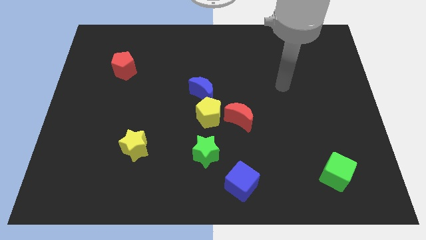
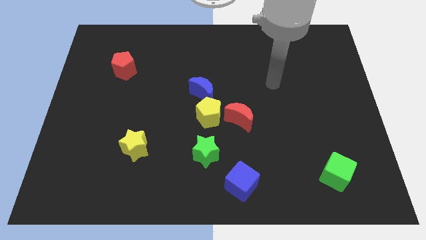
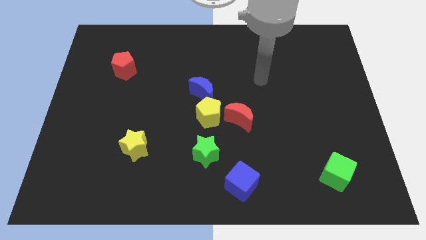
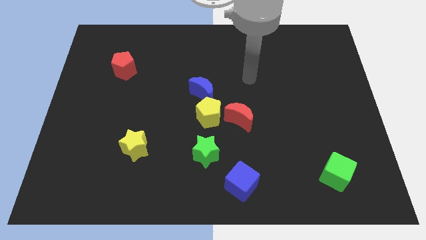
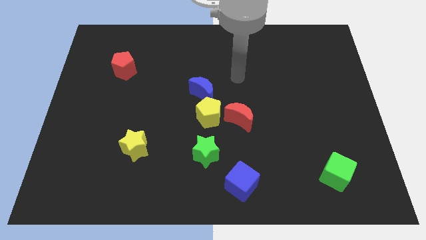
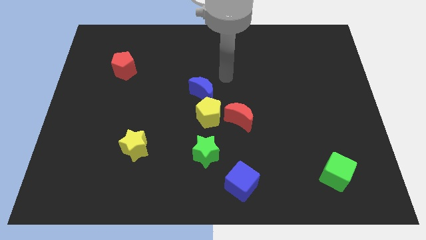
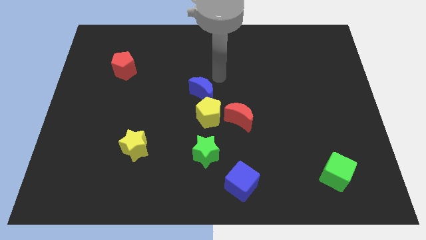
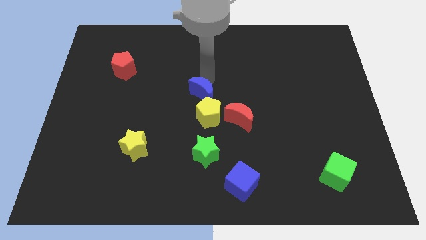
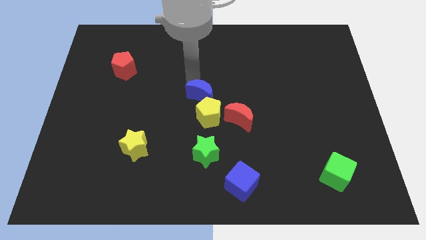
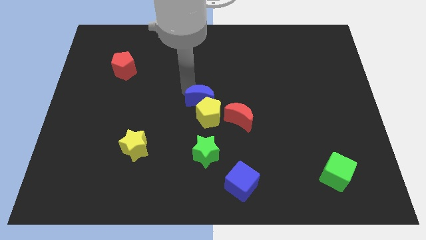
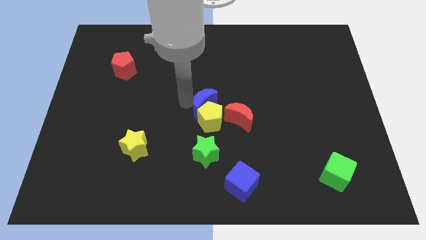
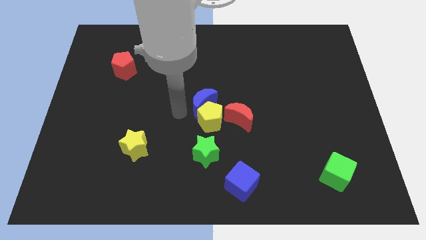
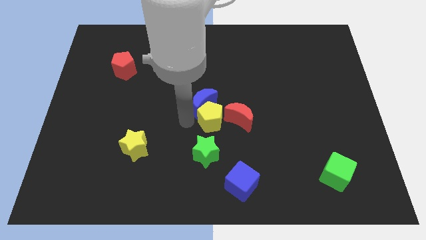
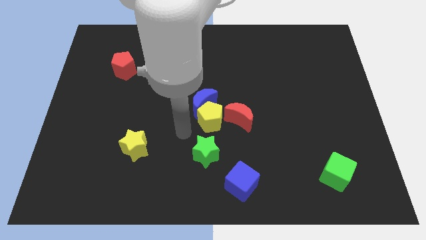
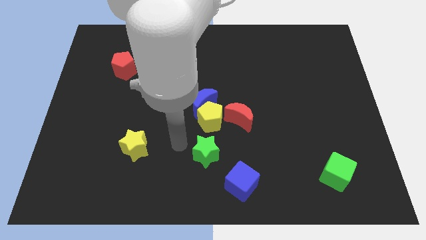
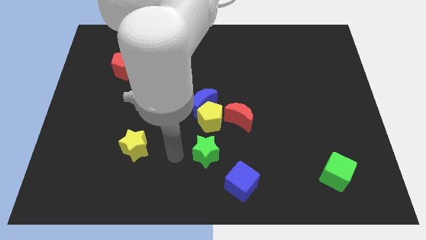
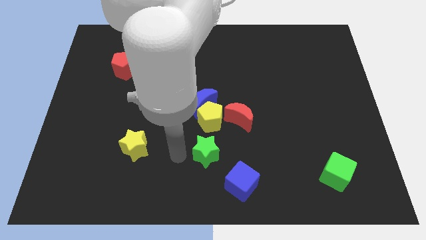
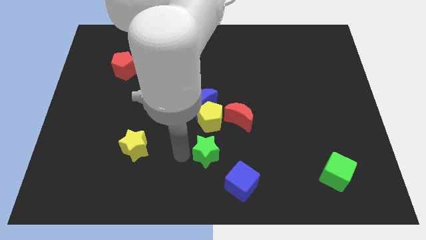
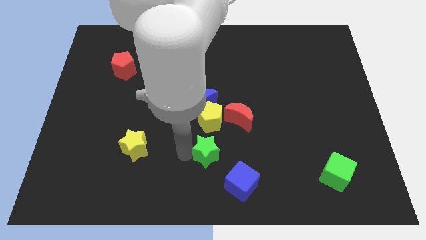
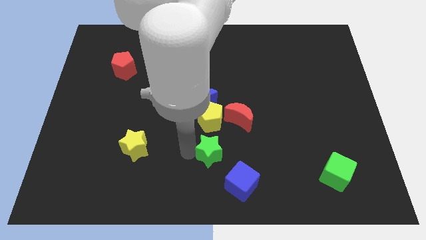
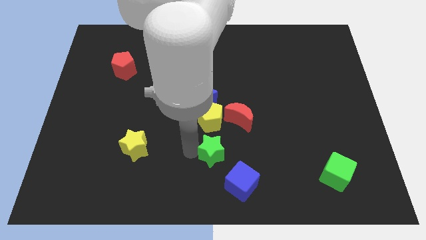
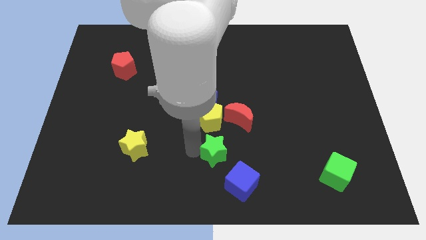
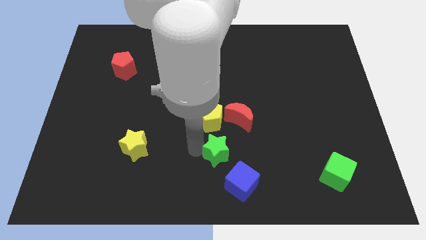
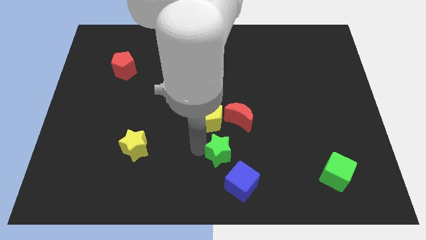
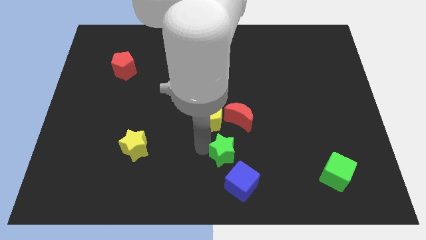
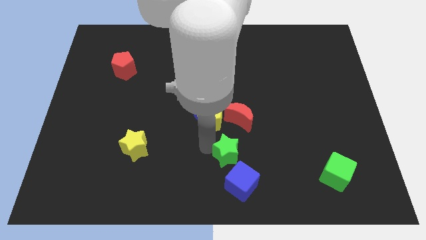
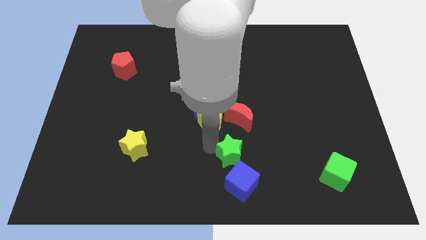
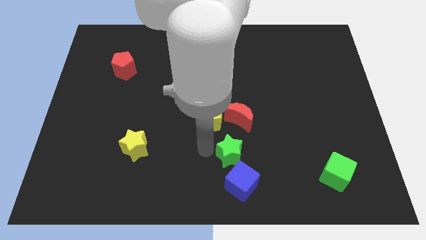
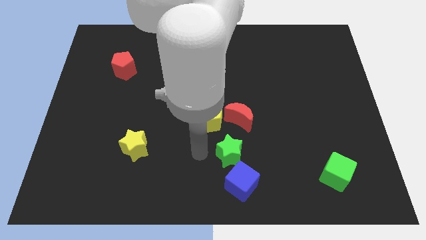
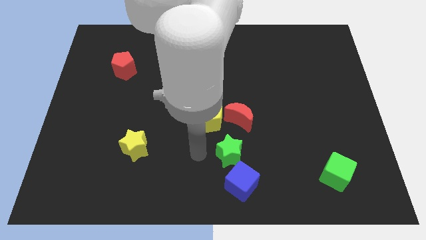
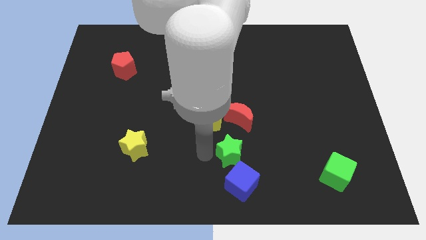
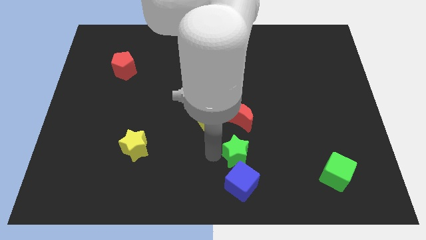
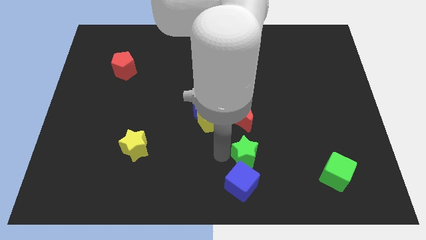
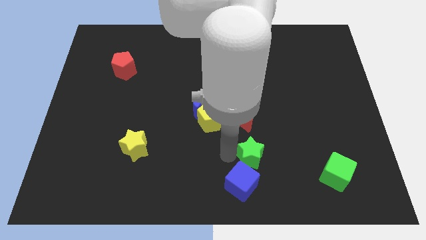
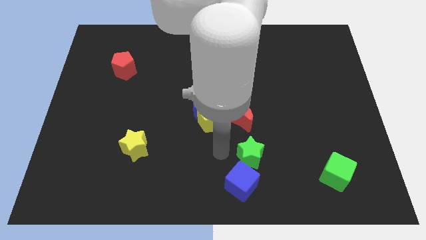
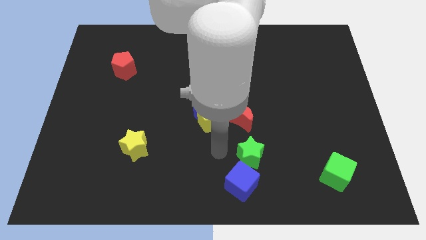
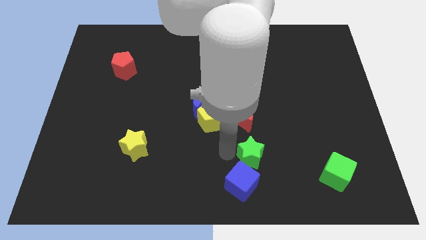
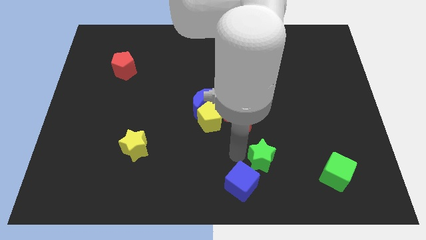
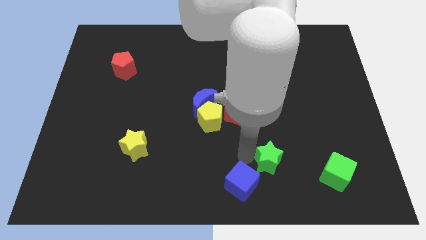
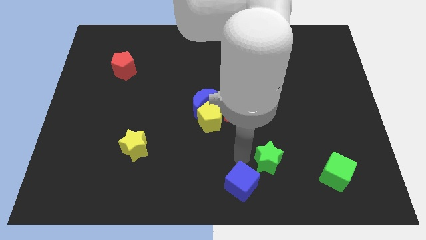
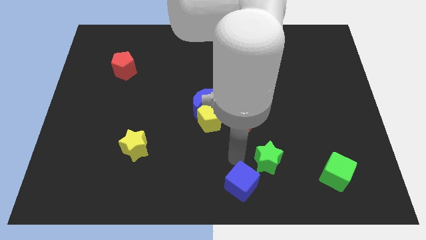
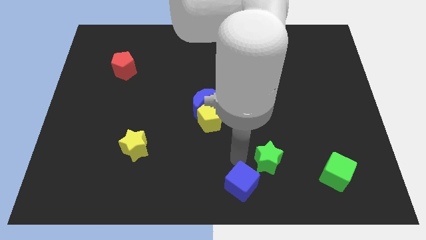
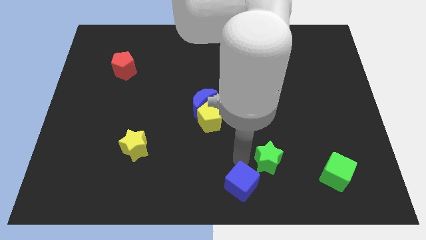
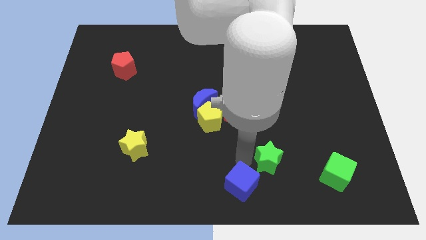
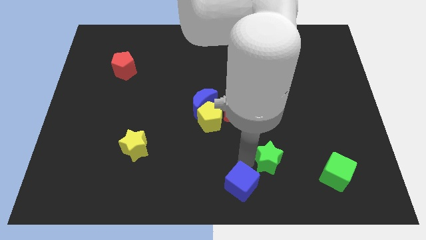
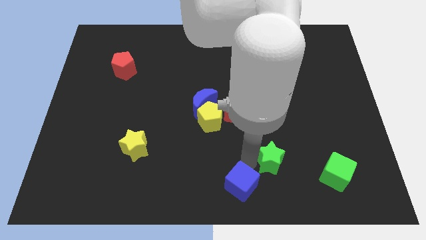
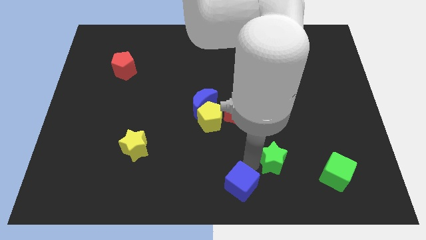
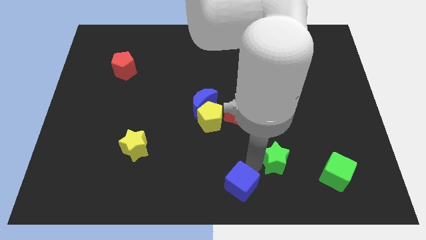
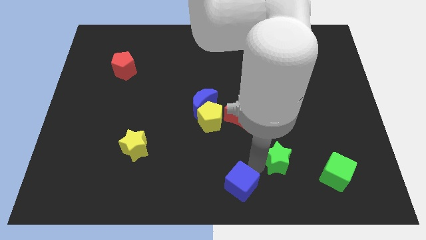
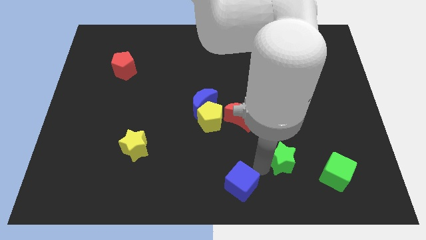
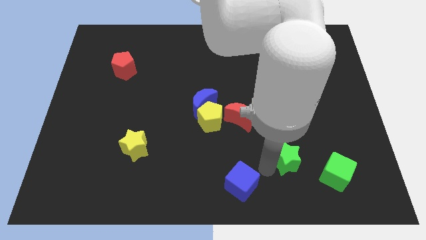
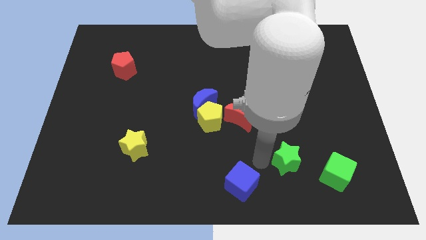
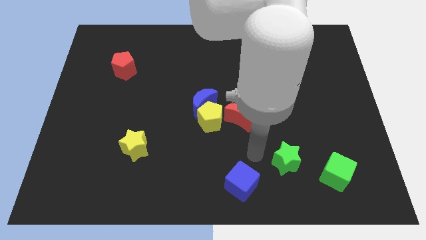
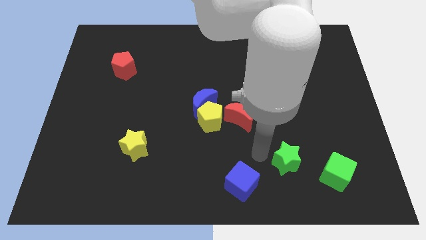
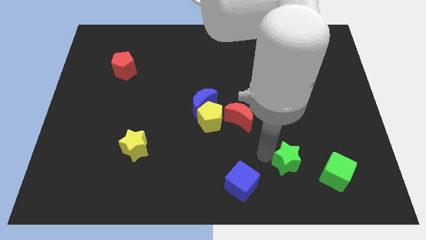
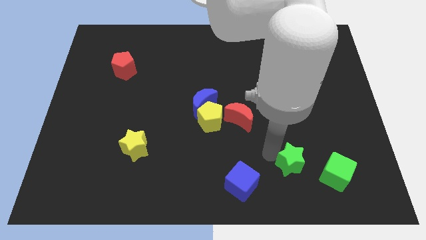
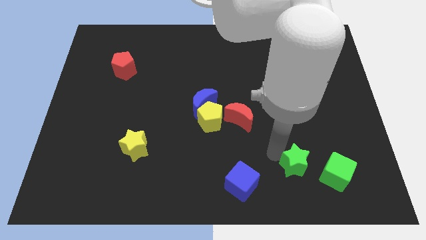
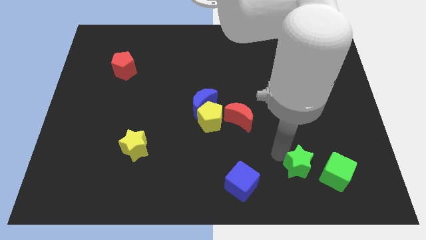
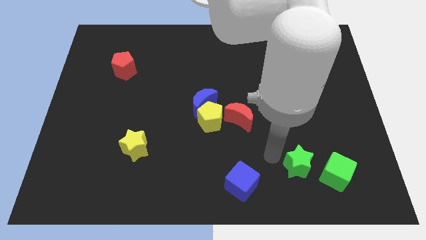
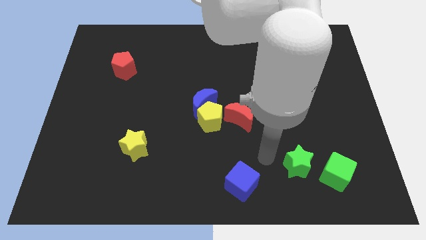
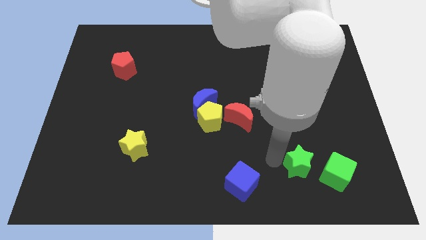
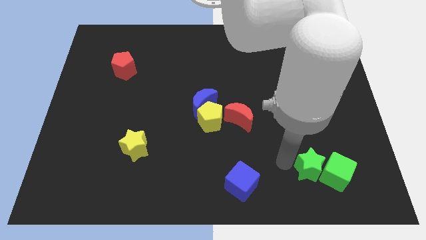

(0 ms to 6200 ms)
slide the green star to the green cube

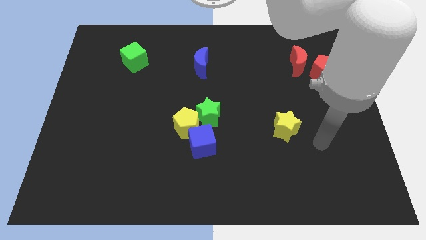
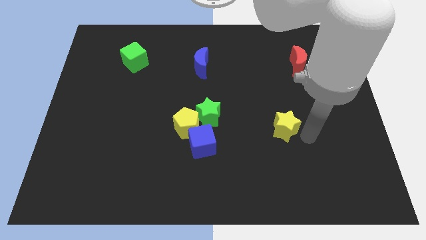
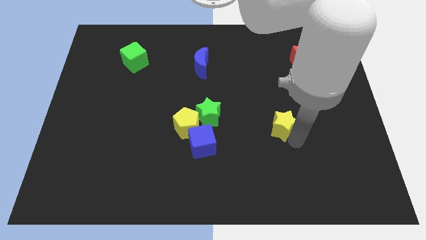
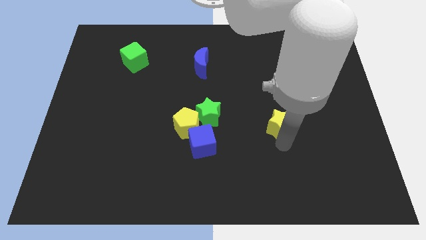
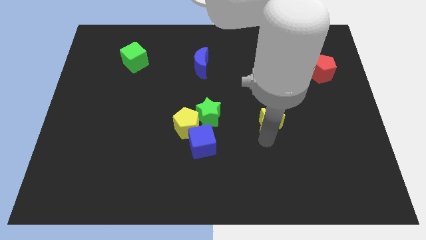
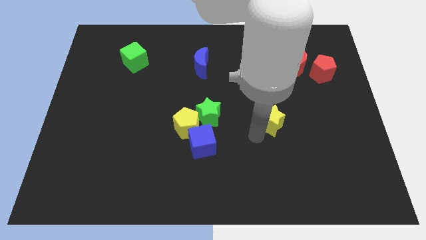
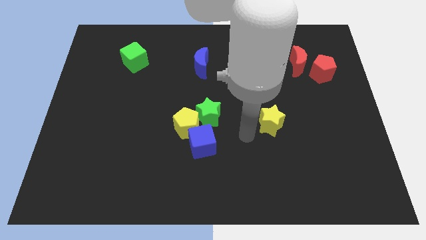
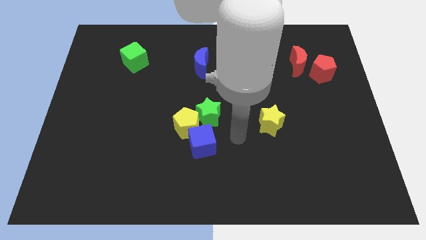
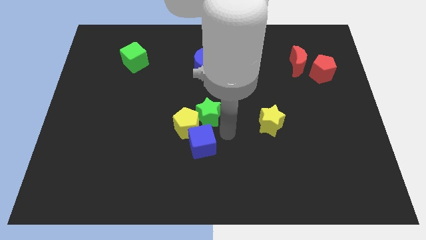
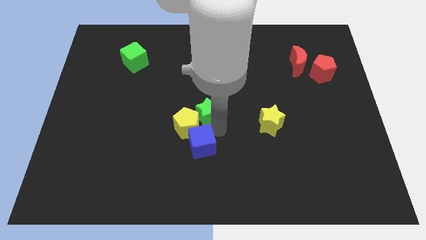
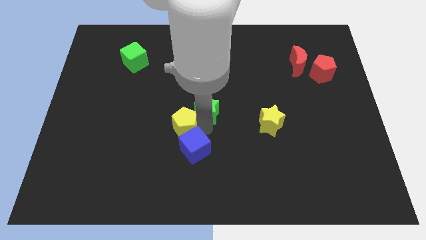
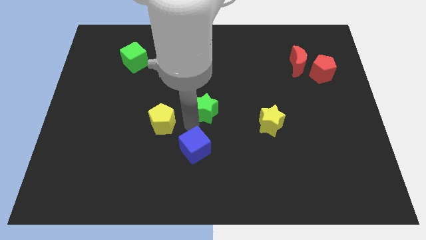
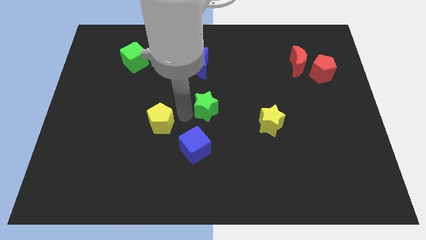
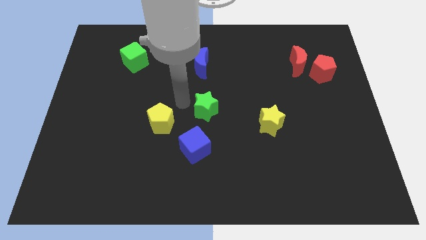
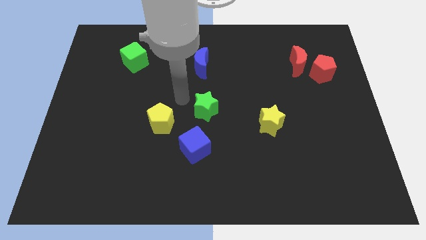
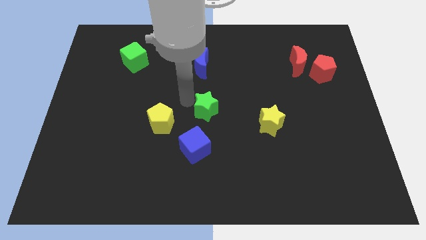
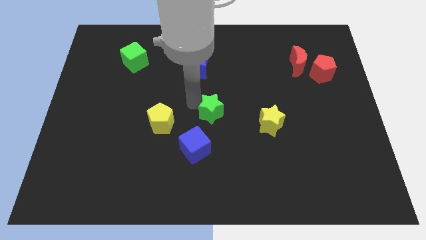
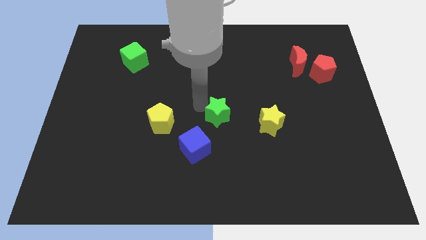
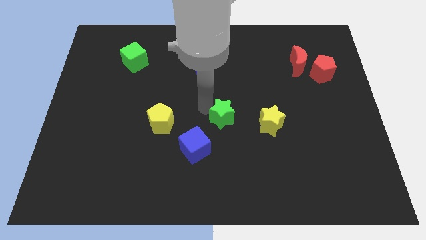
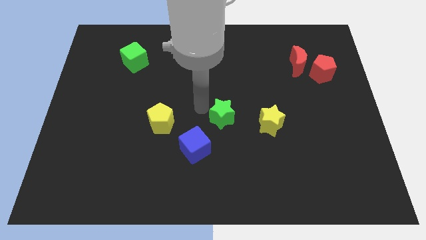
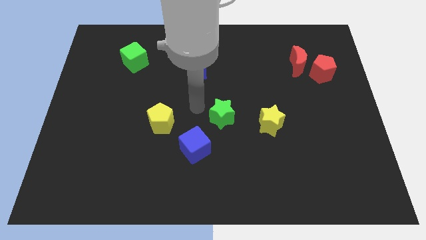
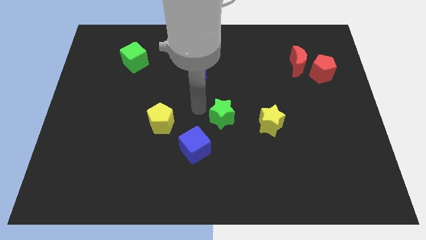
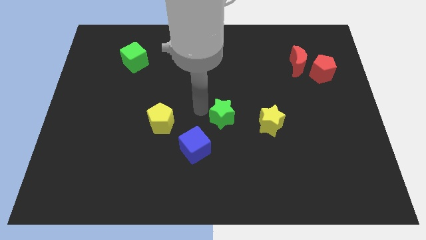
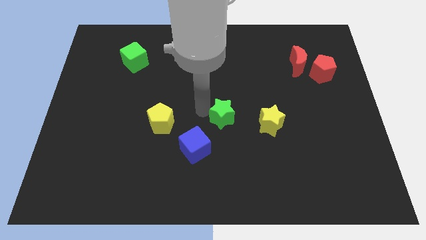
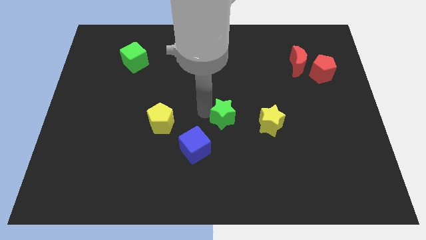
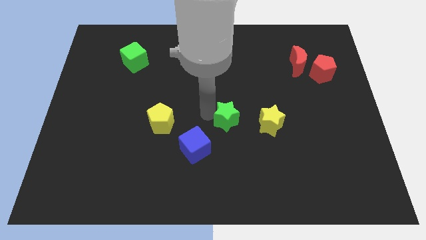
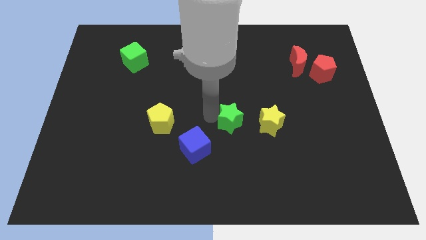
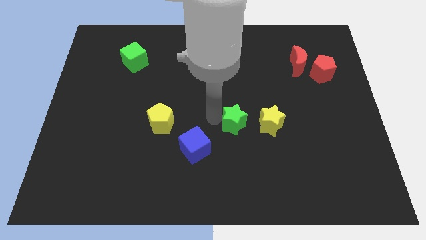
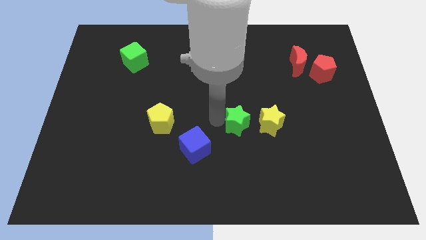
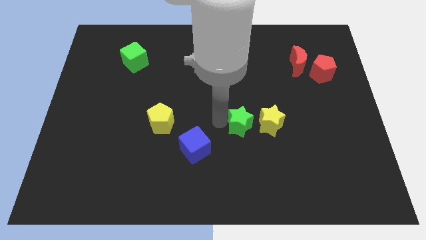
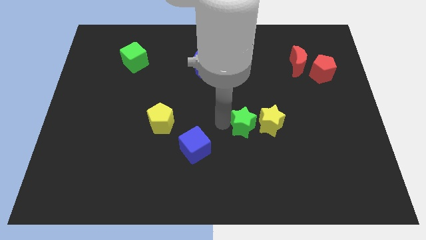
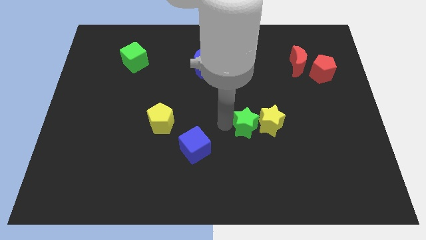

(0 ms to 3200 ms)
put the green star next to the yellow star
